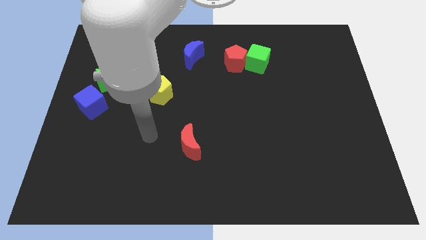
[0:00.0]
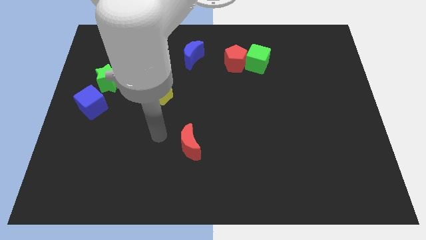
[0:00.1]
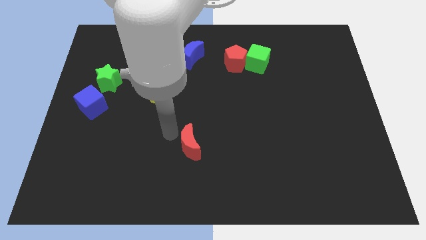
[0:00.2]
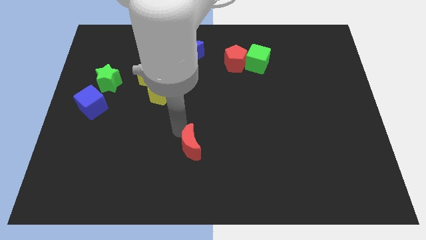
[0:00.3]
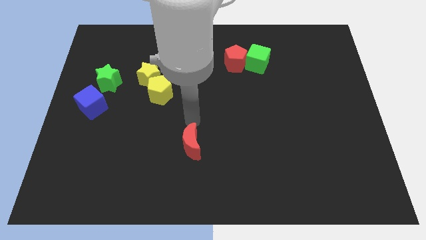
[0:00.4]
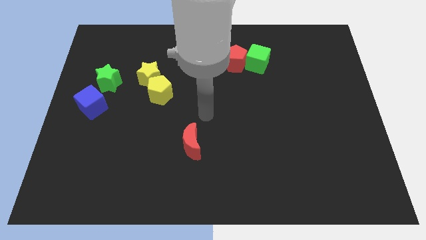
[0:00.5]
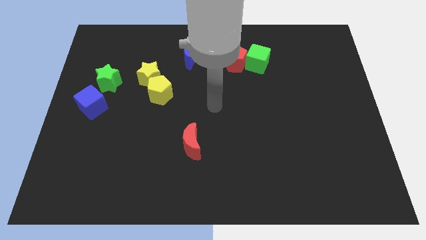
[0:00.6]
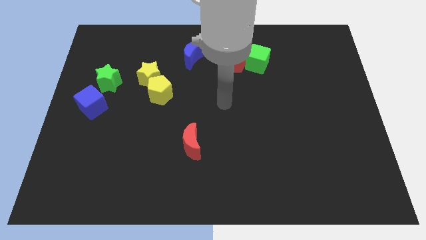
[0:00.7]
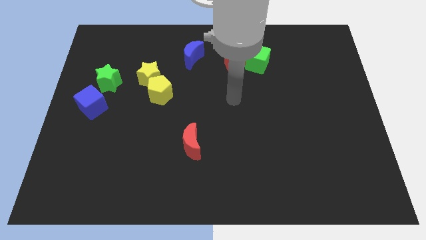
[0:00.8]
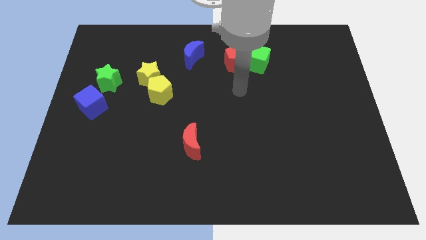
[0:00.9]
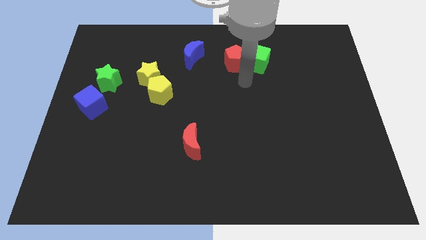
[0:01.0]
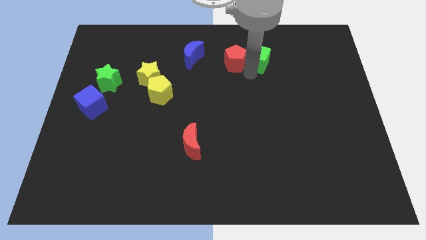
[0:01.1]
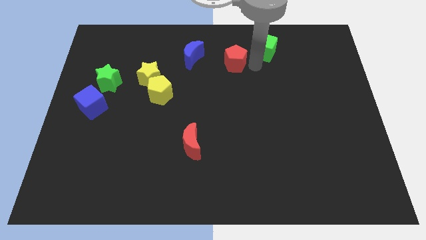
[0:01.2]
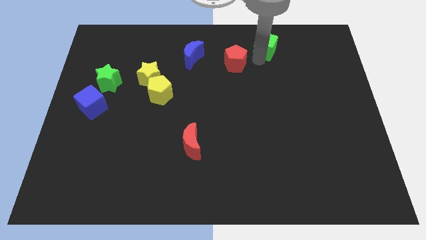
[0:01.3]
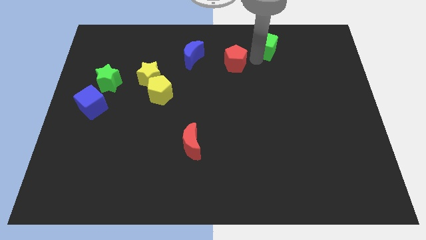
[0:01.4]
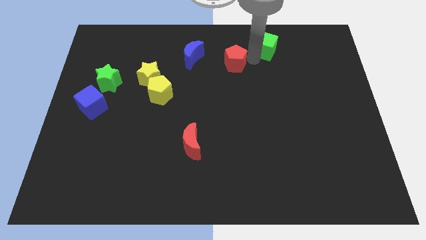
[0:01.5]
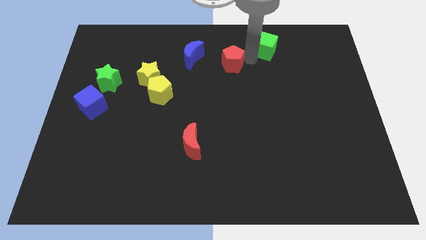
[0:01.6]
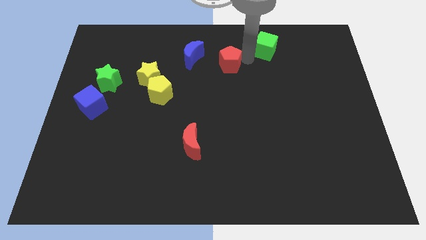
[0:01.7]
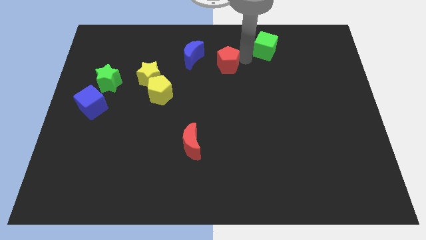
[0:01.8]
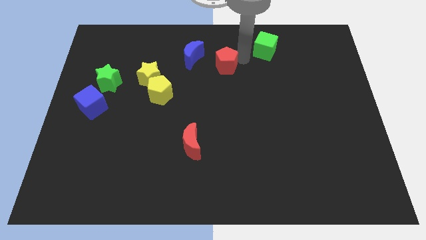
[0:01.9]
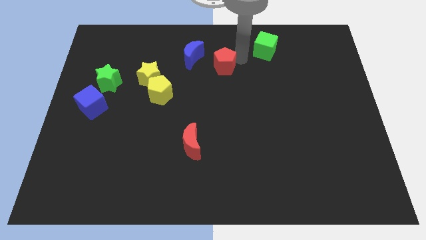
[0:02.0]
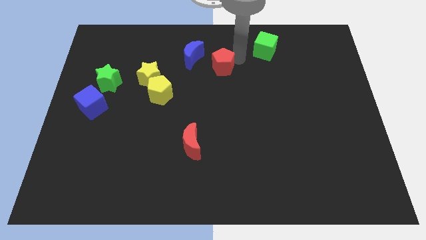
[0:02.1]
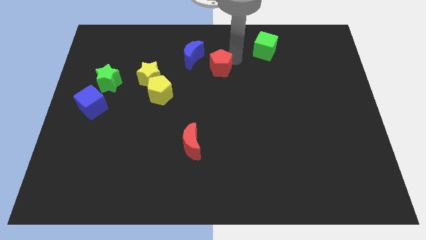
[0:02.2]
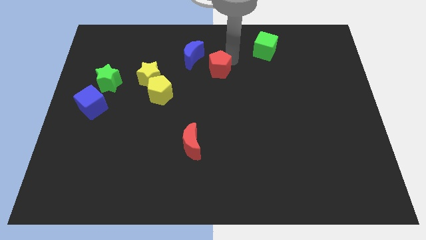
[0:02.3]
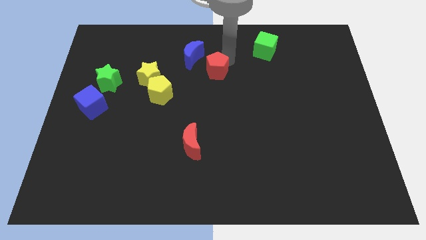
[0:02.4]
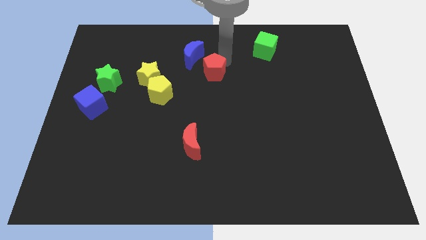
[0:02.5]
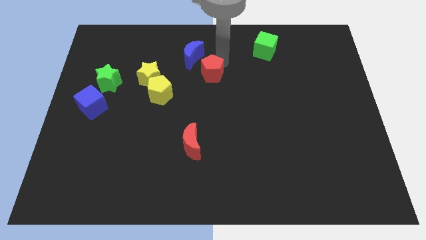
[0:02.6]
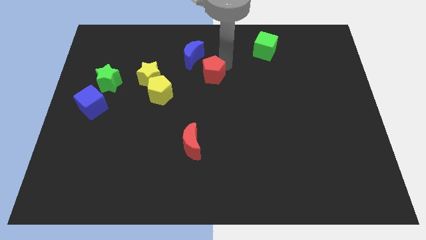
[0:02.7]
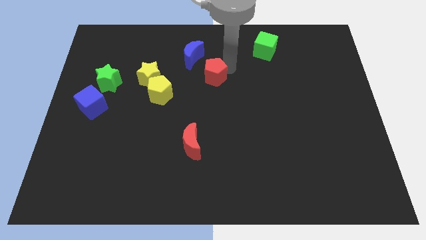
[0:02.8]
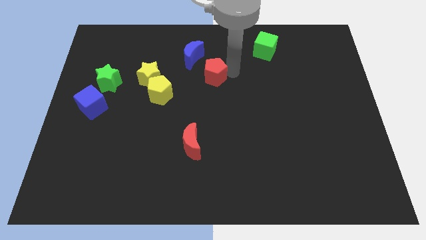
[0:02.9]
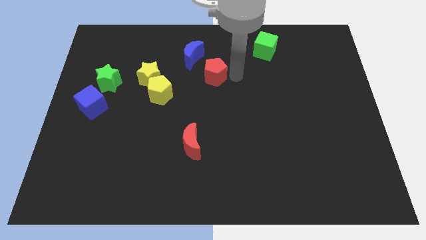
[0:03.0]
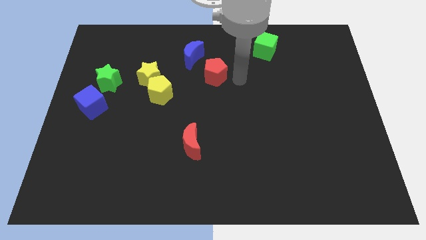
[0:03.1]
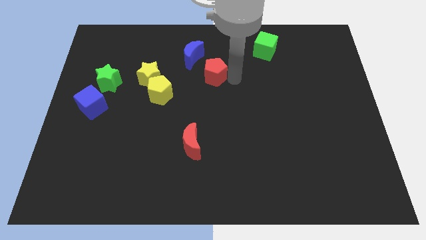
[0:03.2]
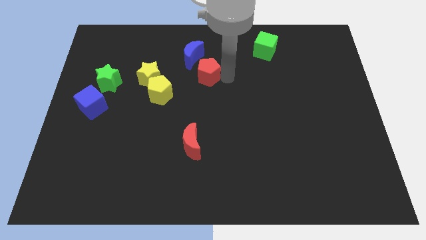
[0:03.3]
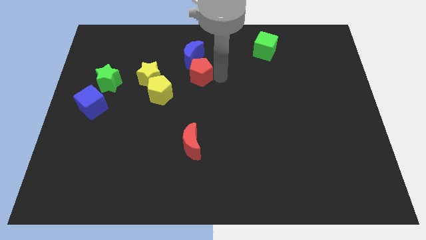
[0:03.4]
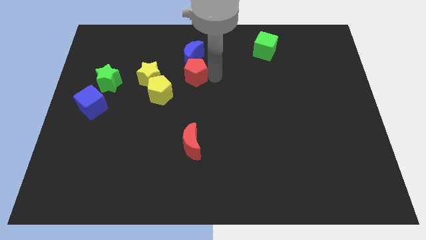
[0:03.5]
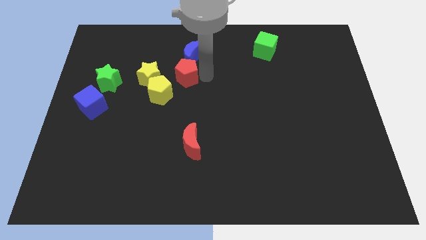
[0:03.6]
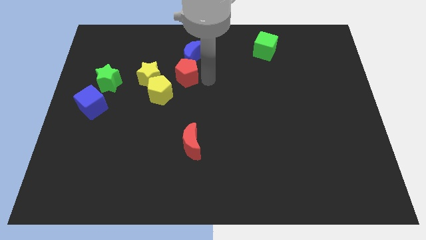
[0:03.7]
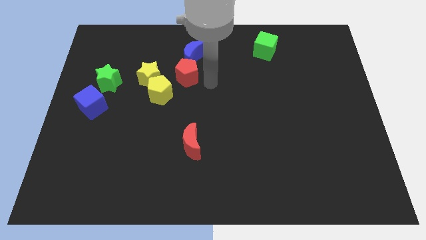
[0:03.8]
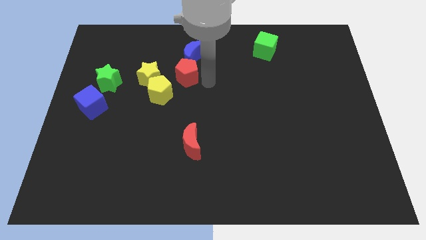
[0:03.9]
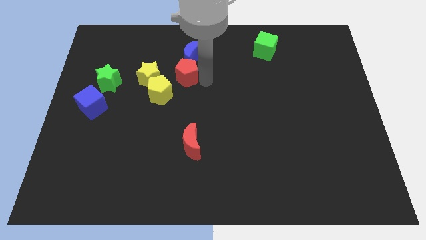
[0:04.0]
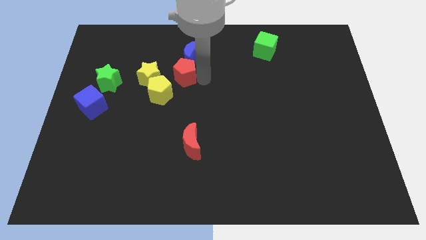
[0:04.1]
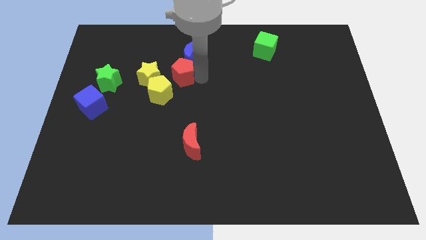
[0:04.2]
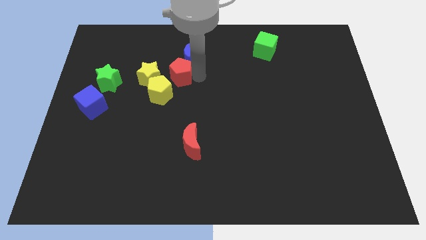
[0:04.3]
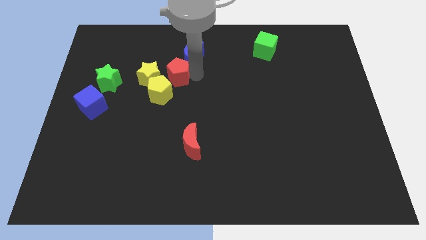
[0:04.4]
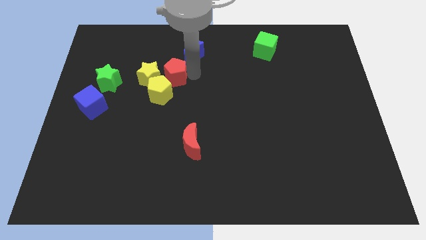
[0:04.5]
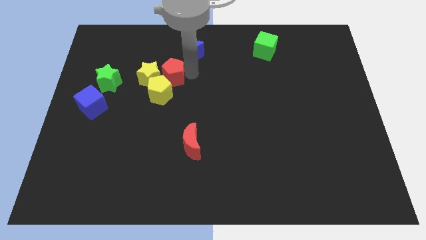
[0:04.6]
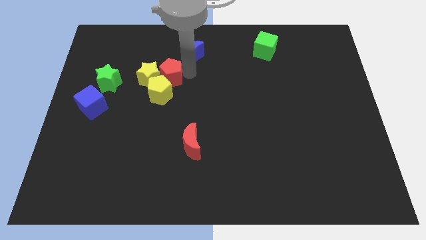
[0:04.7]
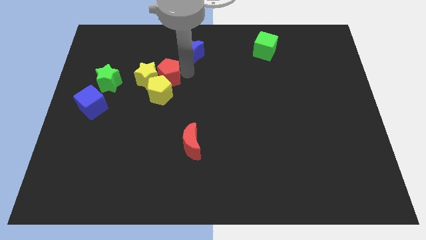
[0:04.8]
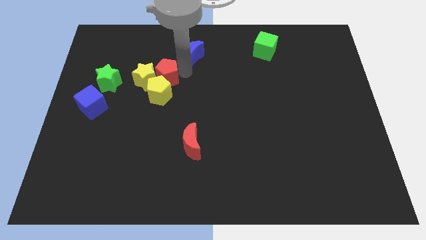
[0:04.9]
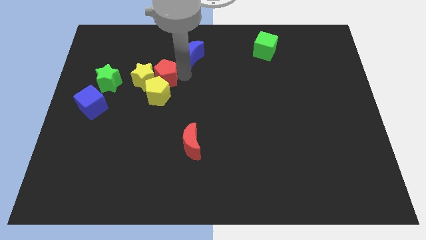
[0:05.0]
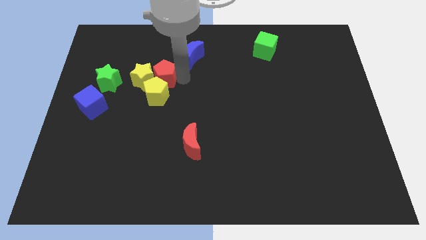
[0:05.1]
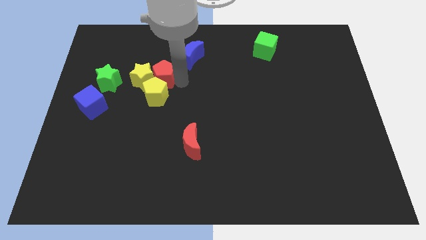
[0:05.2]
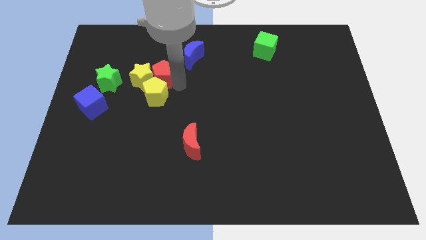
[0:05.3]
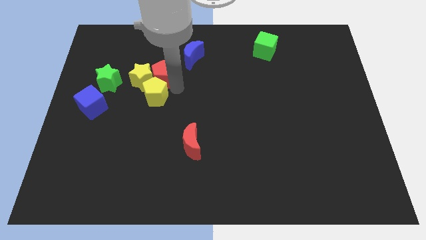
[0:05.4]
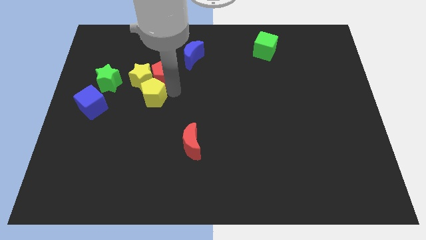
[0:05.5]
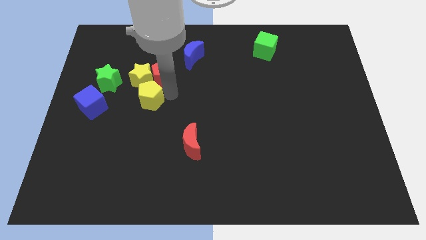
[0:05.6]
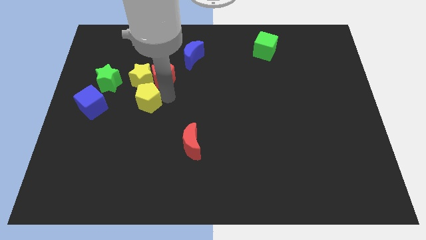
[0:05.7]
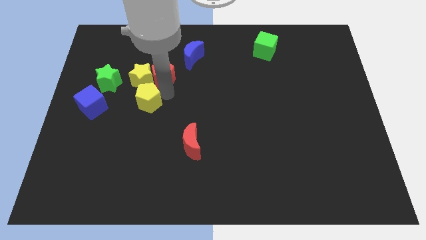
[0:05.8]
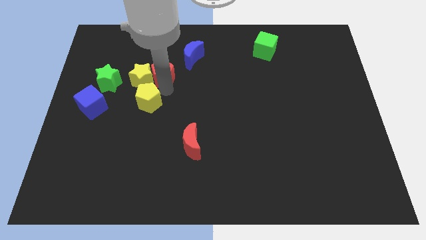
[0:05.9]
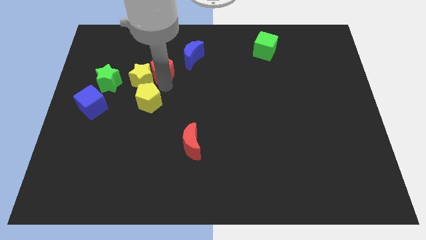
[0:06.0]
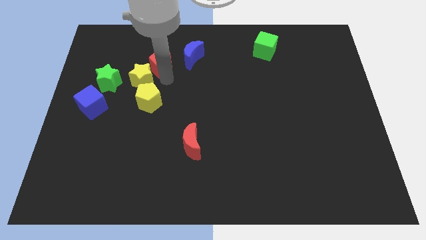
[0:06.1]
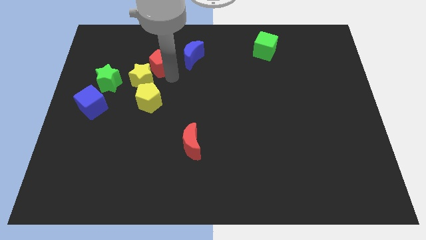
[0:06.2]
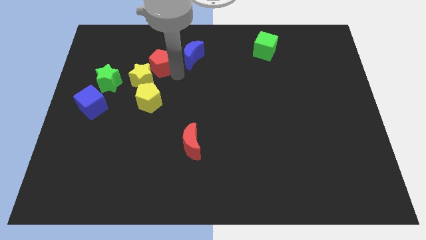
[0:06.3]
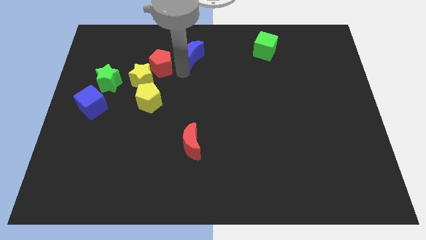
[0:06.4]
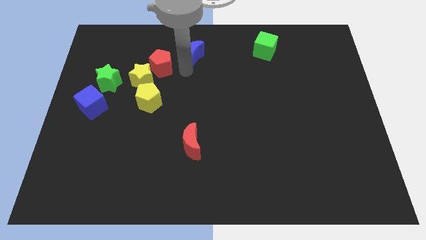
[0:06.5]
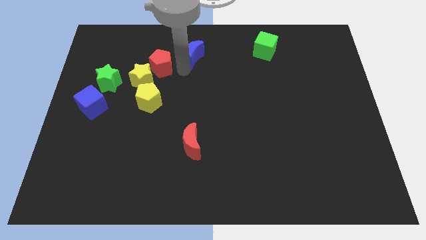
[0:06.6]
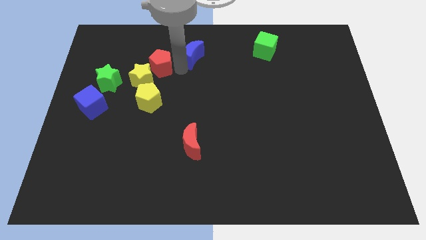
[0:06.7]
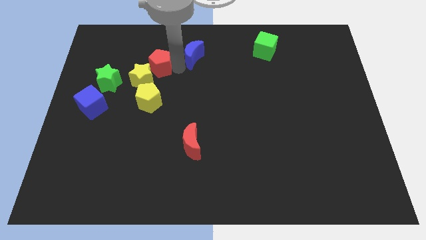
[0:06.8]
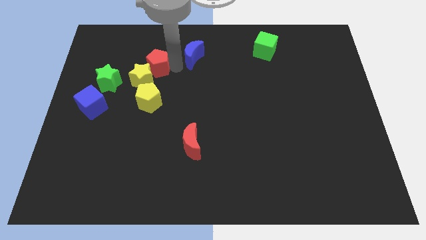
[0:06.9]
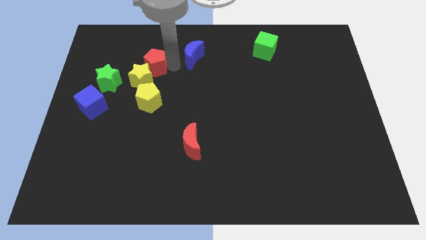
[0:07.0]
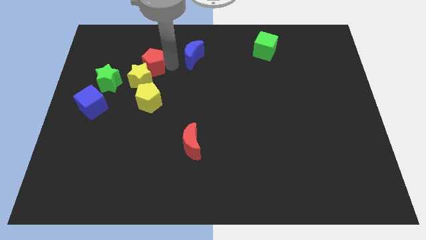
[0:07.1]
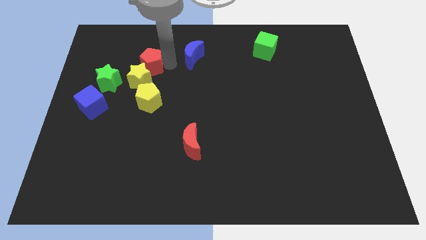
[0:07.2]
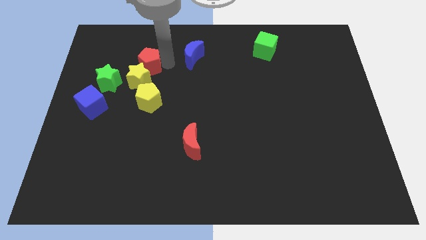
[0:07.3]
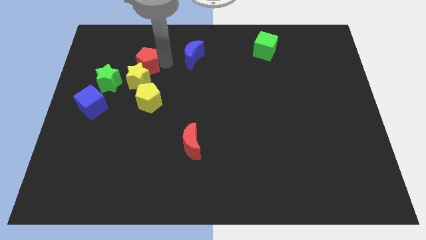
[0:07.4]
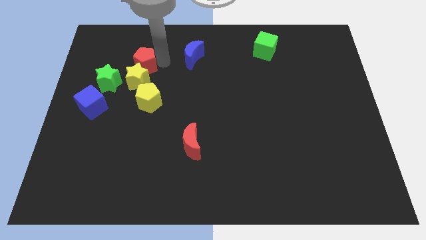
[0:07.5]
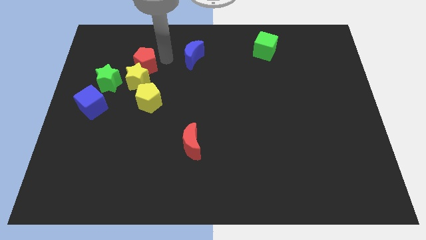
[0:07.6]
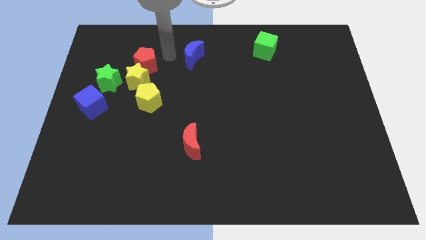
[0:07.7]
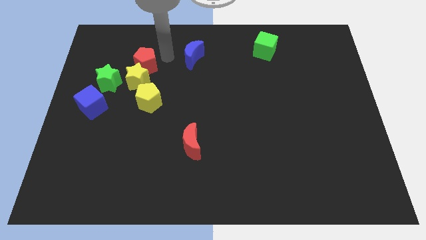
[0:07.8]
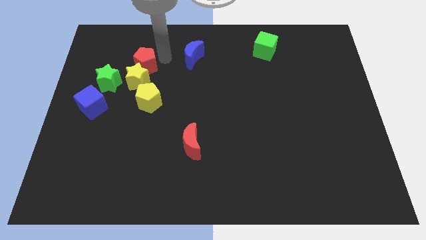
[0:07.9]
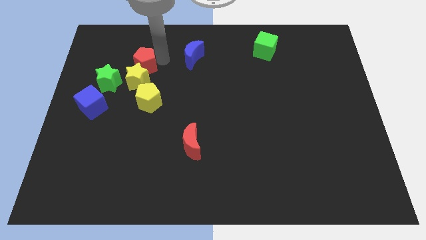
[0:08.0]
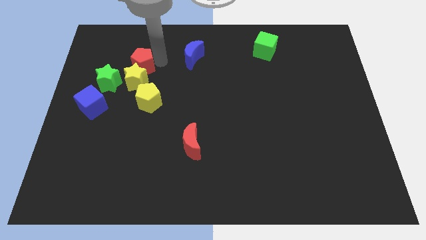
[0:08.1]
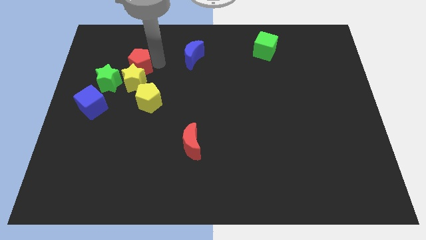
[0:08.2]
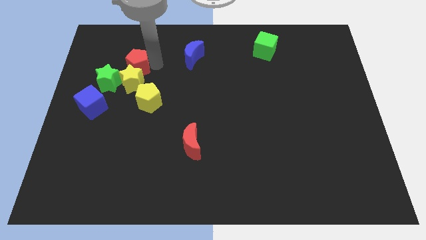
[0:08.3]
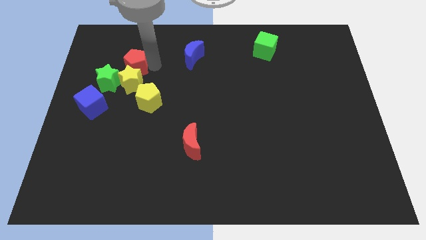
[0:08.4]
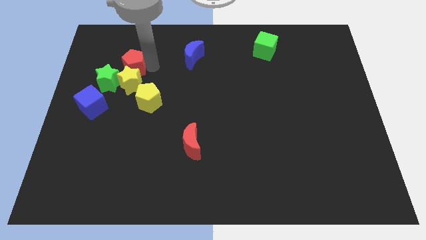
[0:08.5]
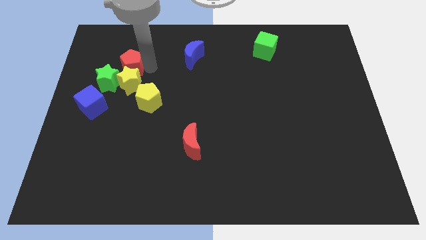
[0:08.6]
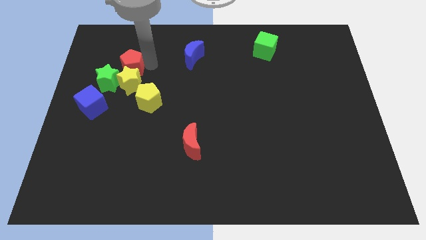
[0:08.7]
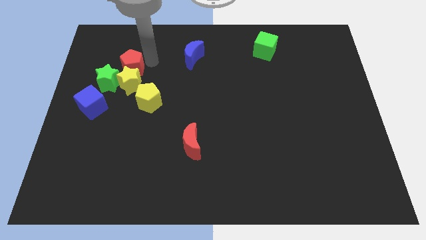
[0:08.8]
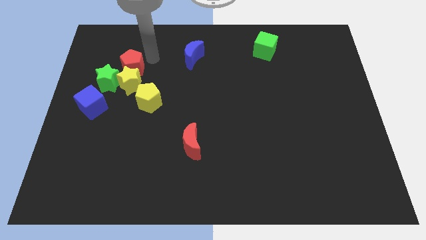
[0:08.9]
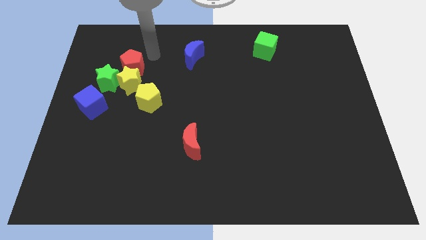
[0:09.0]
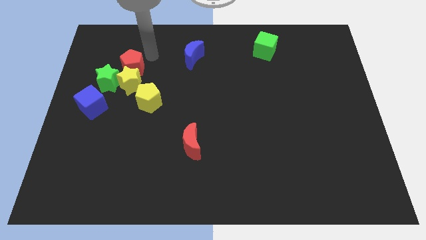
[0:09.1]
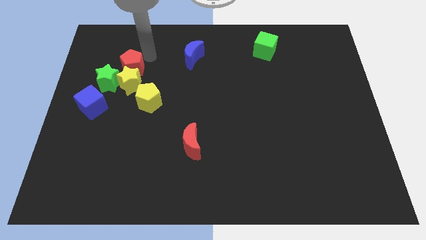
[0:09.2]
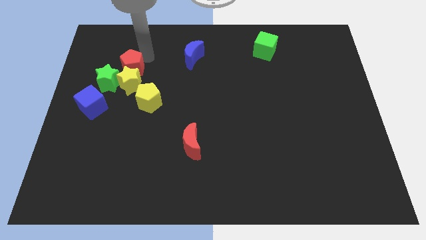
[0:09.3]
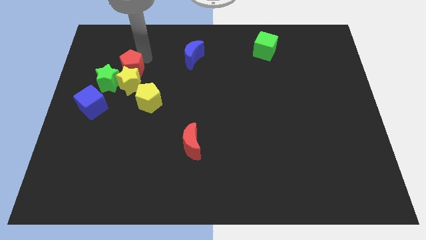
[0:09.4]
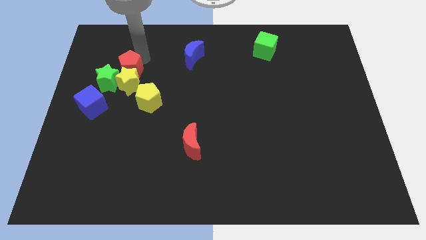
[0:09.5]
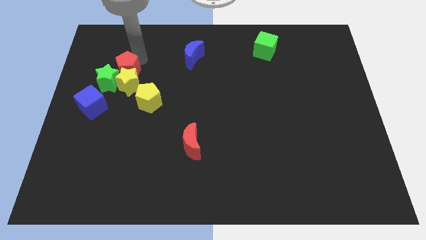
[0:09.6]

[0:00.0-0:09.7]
put the red pentagon to the green star
